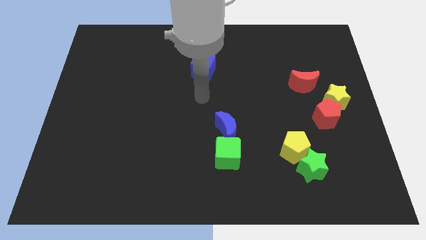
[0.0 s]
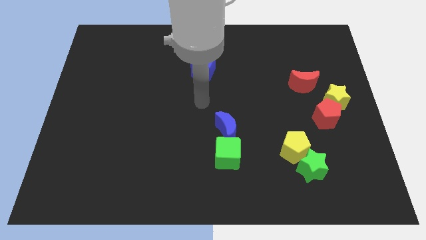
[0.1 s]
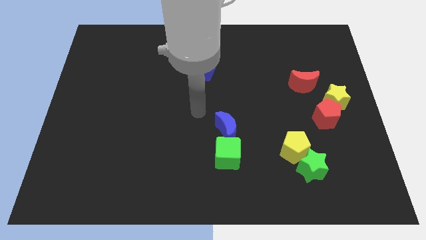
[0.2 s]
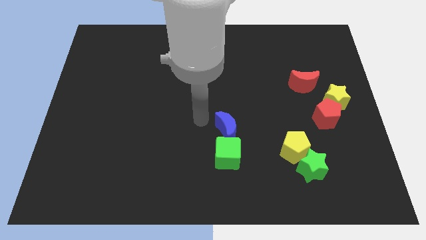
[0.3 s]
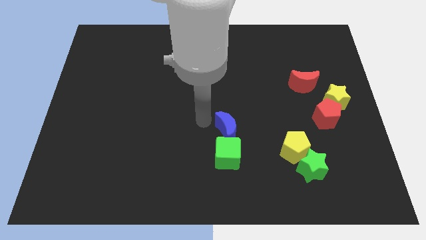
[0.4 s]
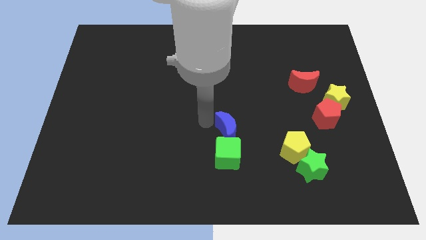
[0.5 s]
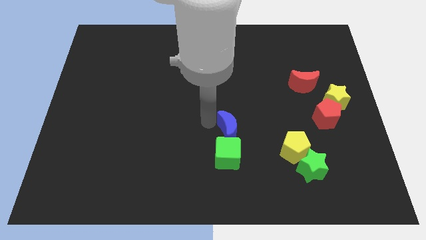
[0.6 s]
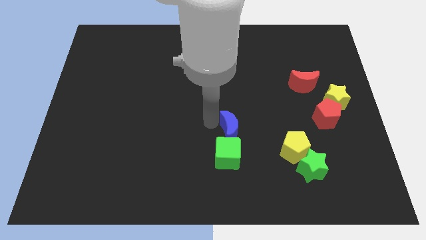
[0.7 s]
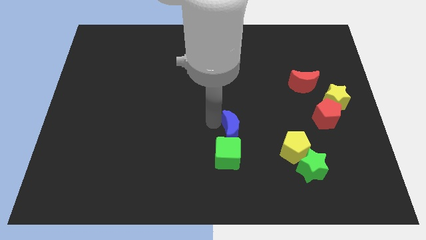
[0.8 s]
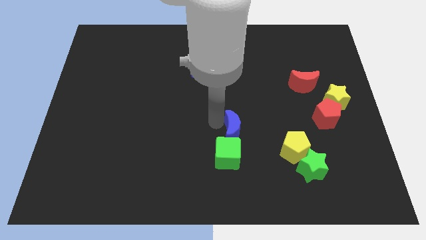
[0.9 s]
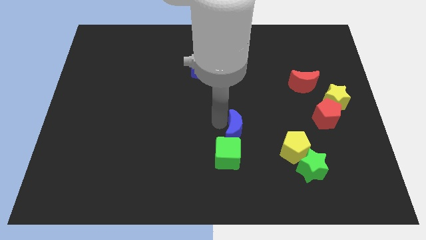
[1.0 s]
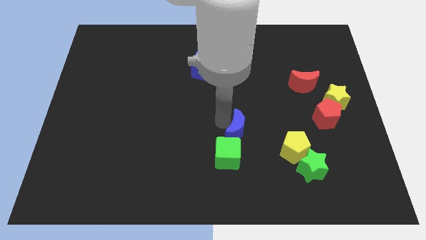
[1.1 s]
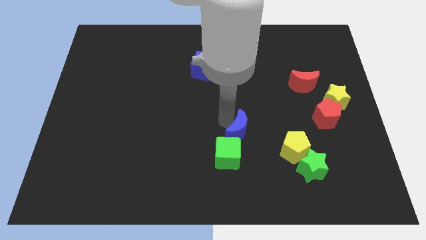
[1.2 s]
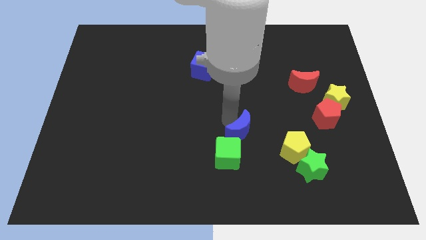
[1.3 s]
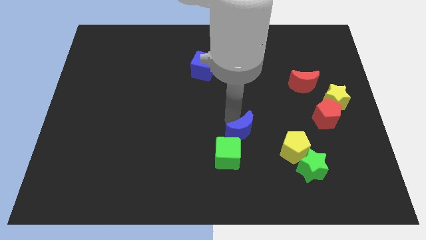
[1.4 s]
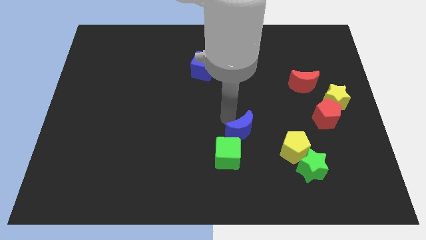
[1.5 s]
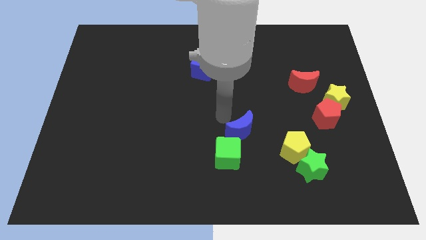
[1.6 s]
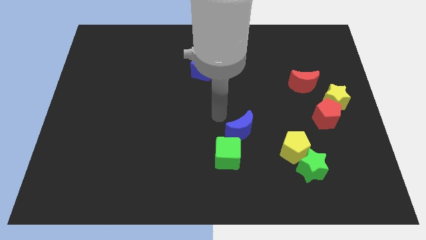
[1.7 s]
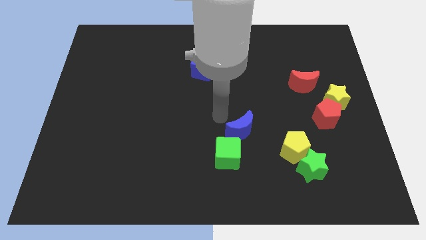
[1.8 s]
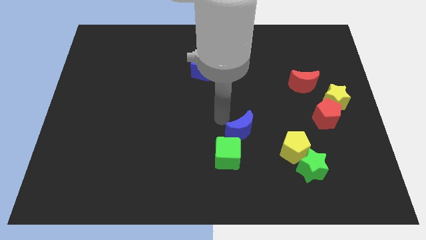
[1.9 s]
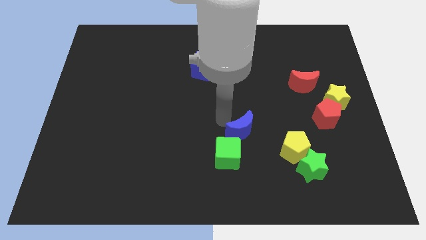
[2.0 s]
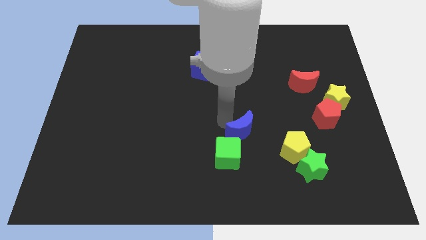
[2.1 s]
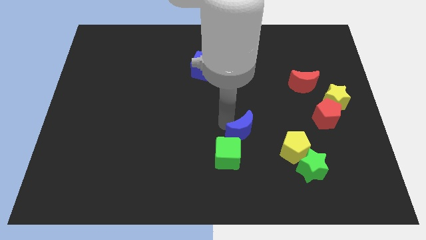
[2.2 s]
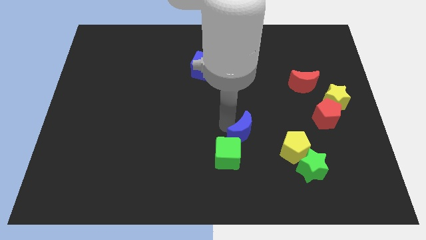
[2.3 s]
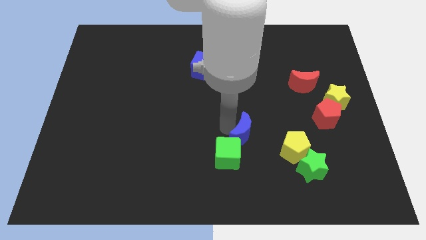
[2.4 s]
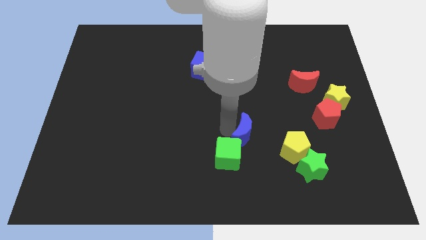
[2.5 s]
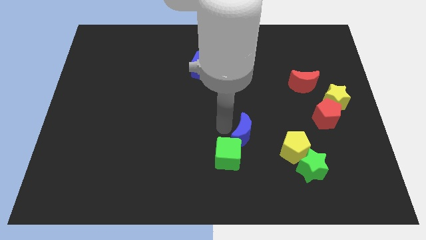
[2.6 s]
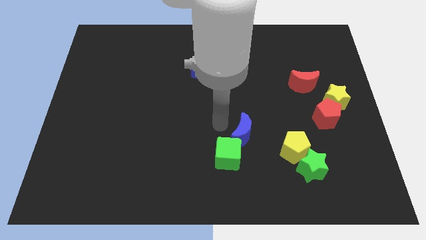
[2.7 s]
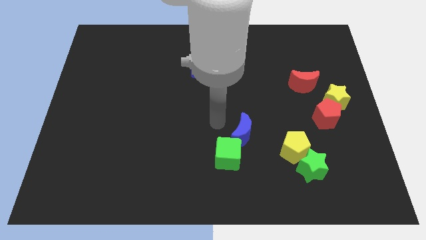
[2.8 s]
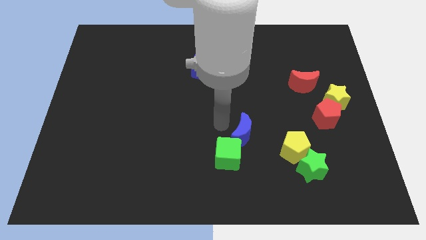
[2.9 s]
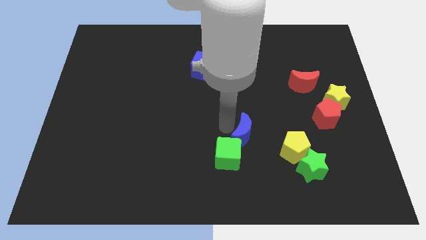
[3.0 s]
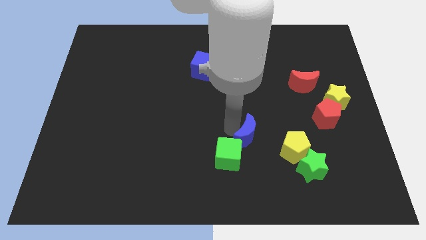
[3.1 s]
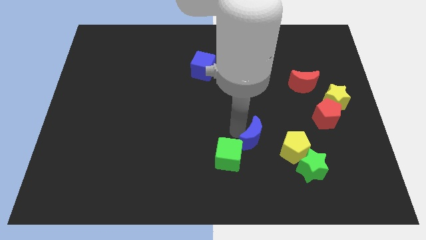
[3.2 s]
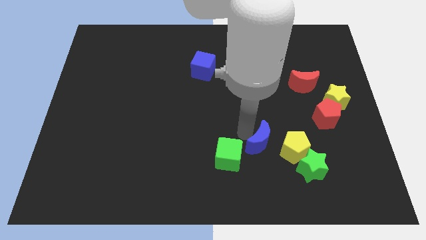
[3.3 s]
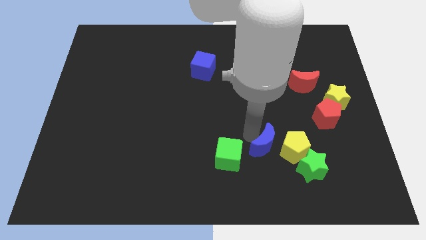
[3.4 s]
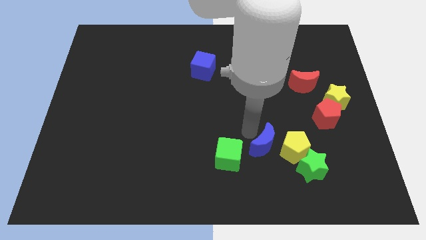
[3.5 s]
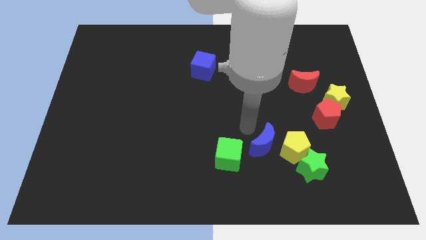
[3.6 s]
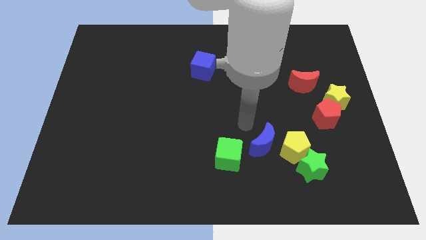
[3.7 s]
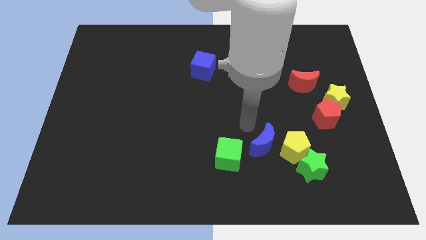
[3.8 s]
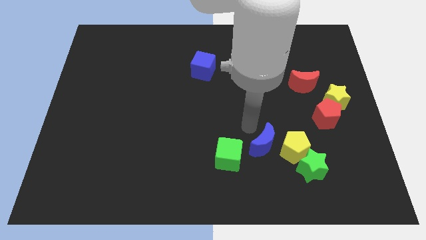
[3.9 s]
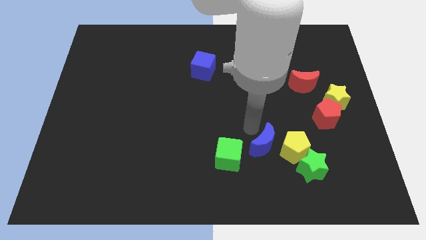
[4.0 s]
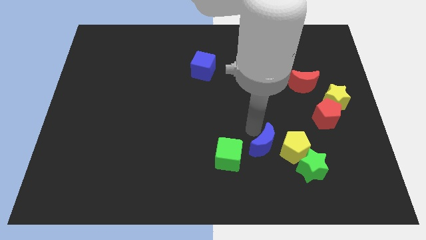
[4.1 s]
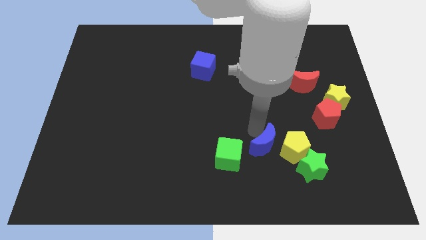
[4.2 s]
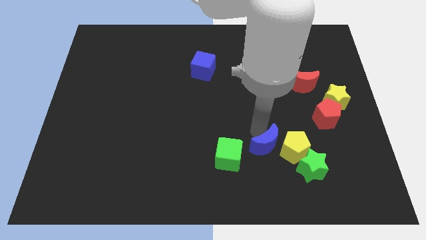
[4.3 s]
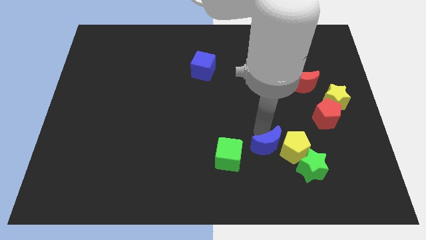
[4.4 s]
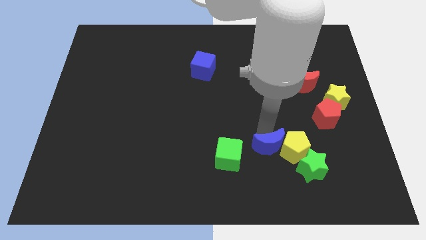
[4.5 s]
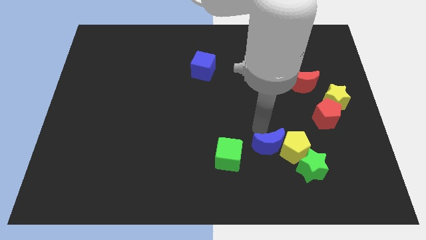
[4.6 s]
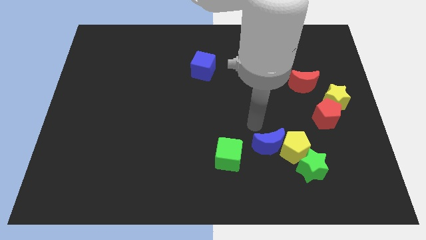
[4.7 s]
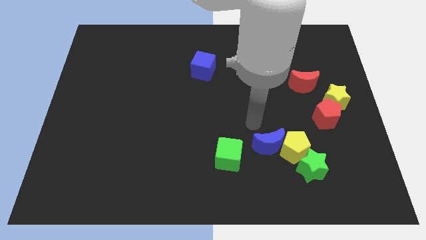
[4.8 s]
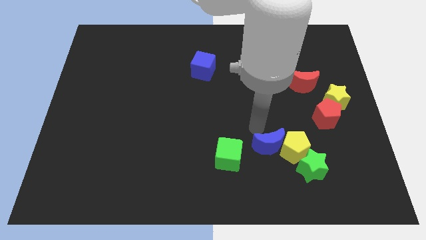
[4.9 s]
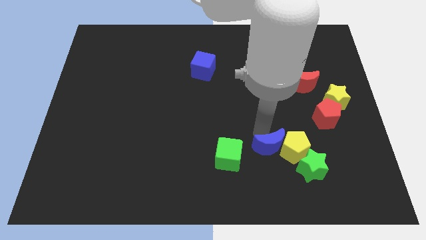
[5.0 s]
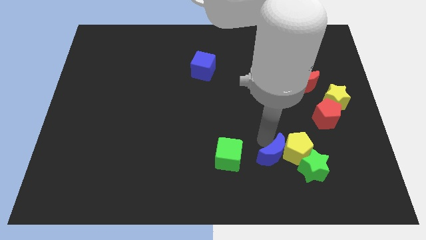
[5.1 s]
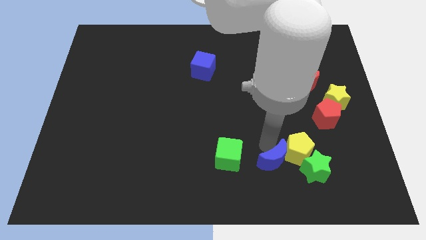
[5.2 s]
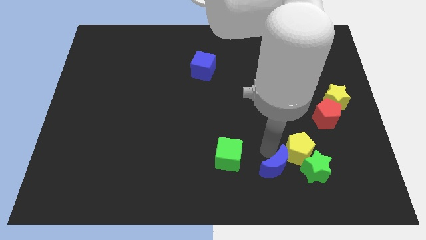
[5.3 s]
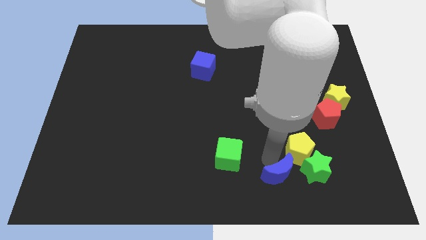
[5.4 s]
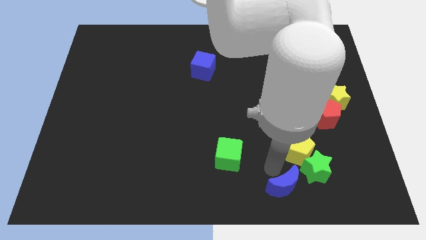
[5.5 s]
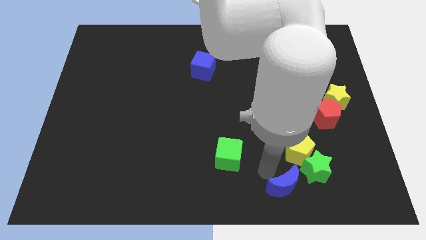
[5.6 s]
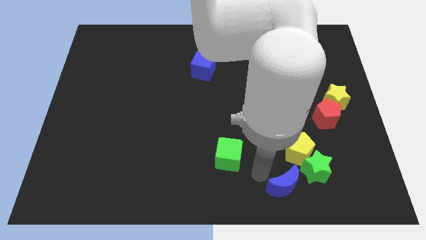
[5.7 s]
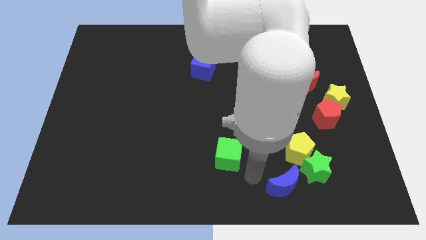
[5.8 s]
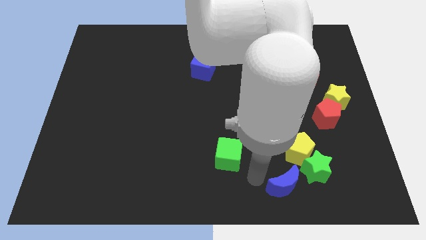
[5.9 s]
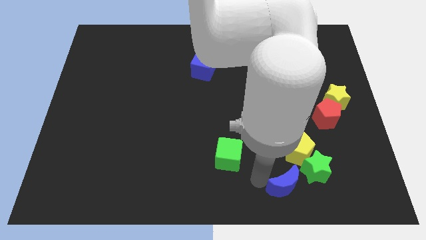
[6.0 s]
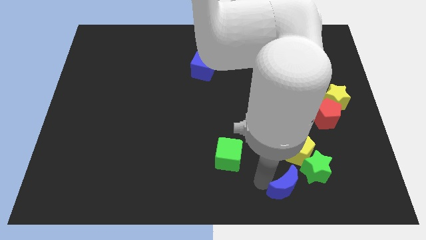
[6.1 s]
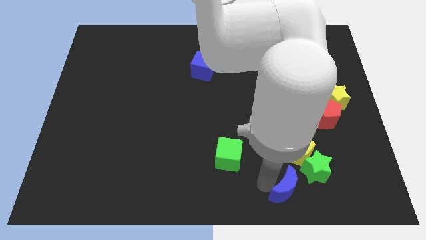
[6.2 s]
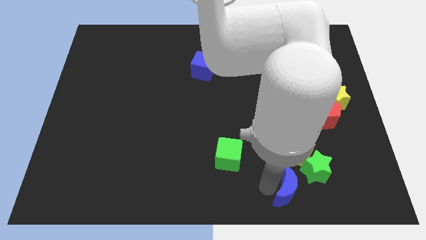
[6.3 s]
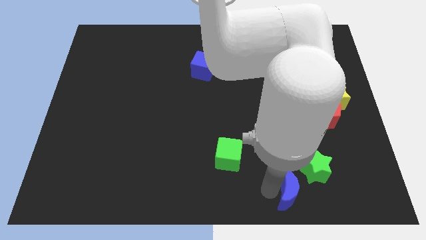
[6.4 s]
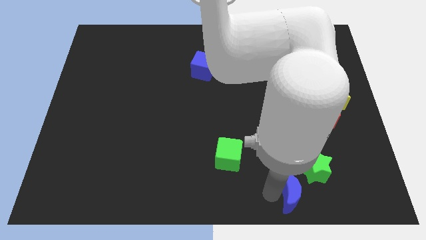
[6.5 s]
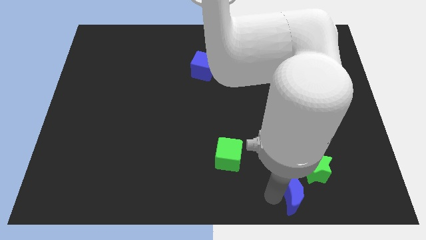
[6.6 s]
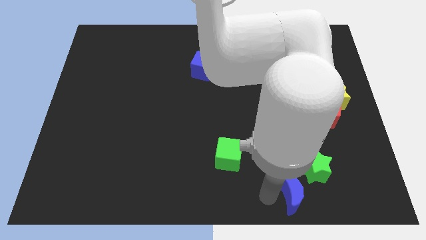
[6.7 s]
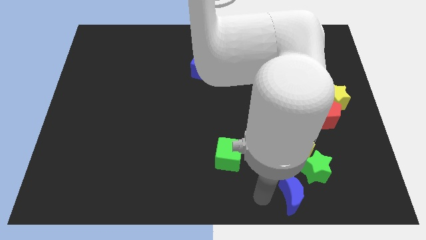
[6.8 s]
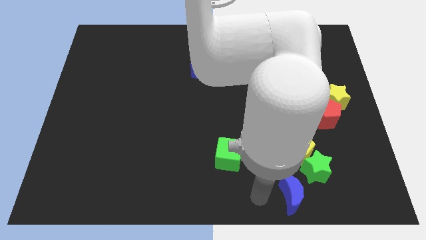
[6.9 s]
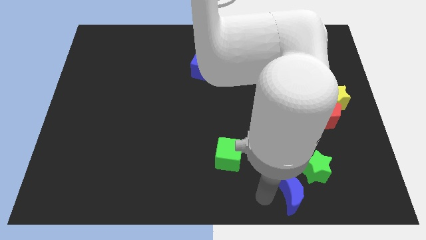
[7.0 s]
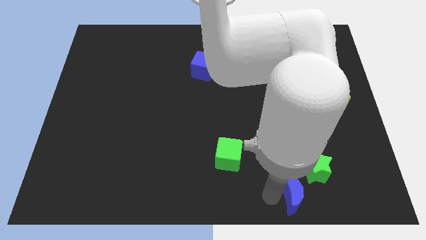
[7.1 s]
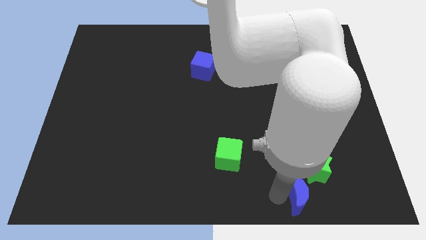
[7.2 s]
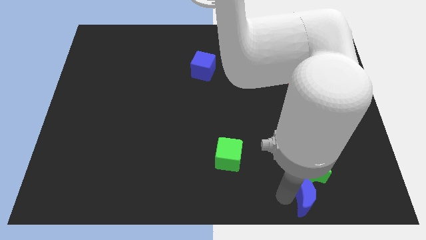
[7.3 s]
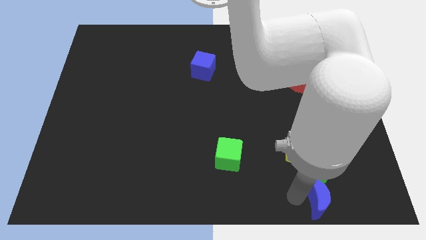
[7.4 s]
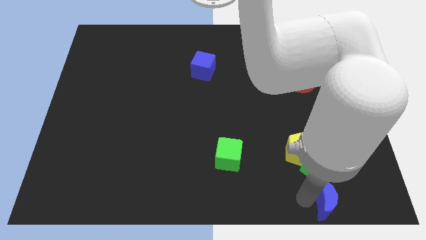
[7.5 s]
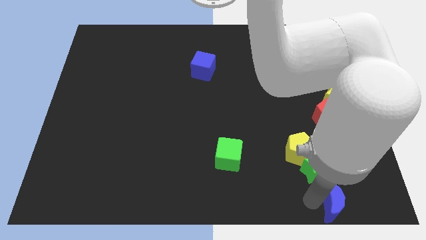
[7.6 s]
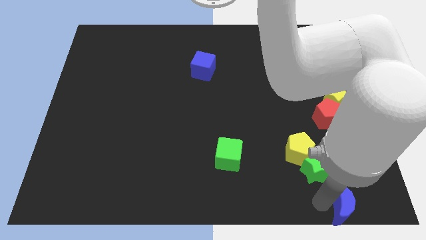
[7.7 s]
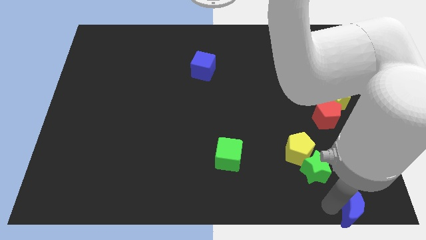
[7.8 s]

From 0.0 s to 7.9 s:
slide the blue moon to the bottom right
